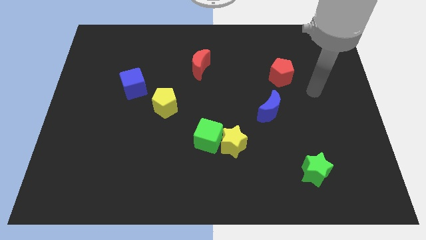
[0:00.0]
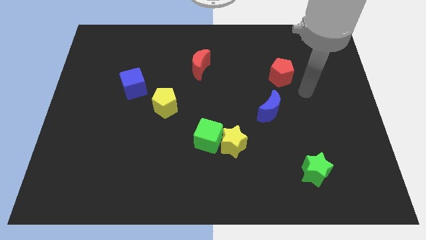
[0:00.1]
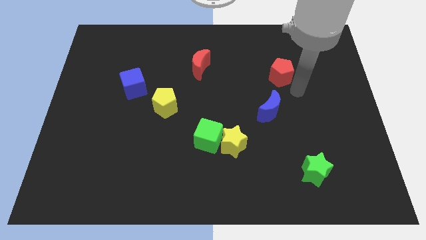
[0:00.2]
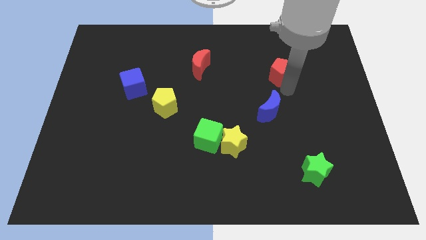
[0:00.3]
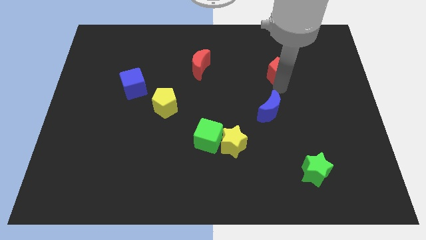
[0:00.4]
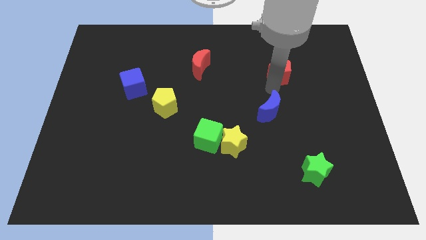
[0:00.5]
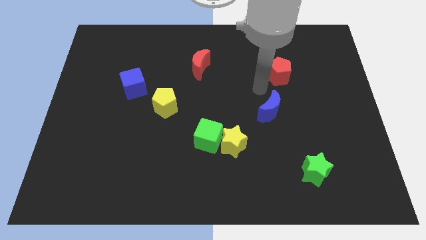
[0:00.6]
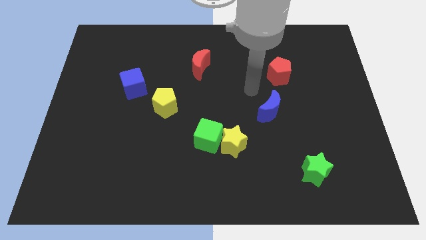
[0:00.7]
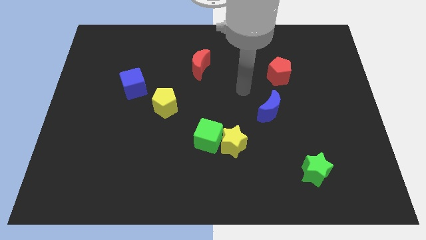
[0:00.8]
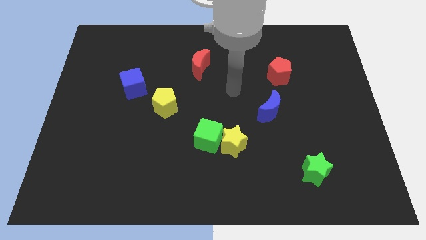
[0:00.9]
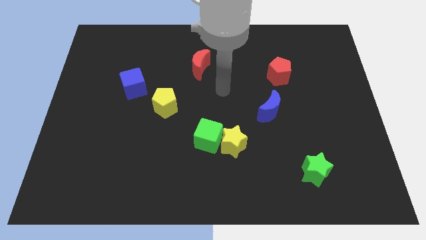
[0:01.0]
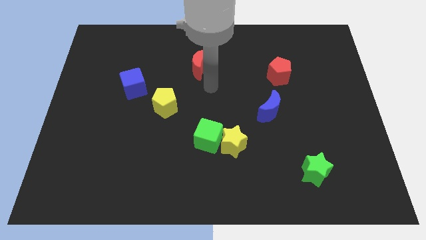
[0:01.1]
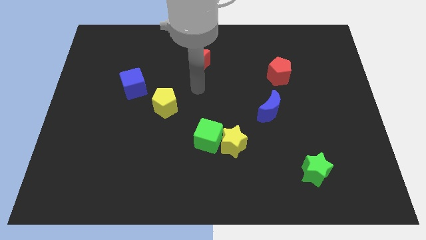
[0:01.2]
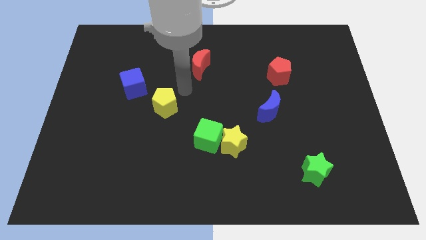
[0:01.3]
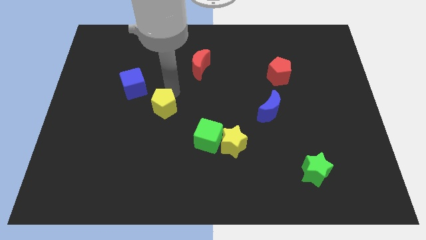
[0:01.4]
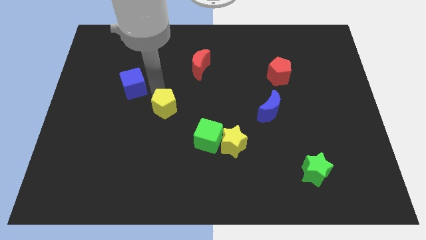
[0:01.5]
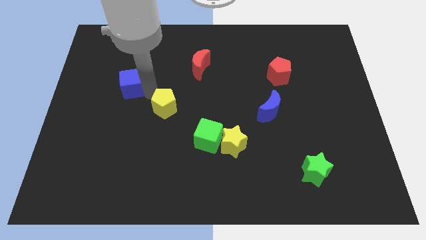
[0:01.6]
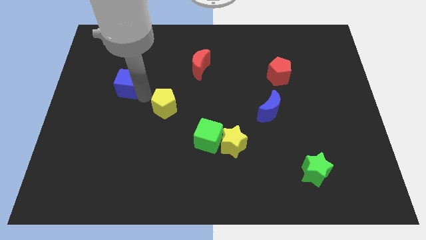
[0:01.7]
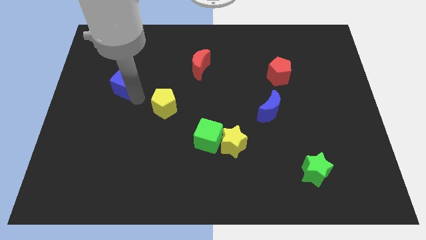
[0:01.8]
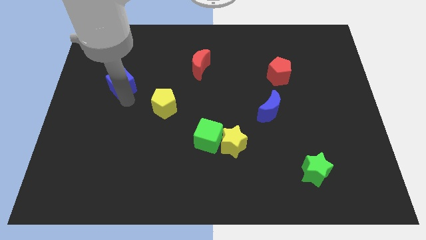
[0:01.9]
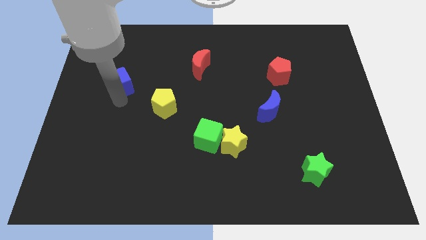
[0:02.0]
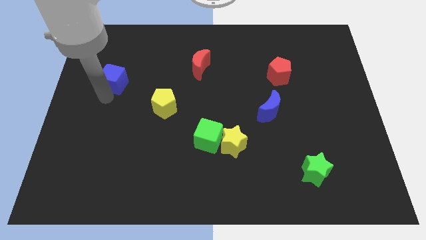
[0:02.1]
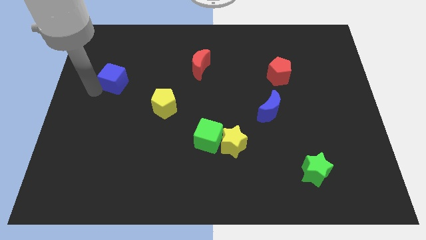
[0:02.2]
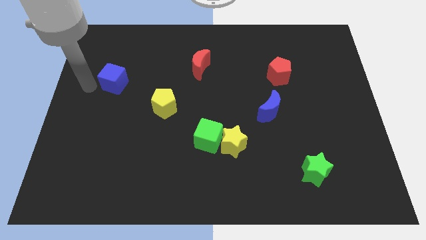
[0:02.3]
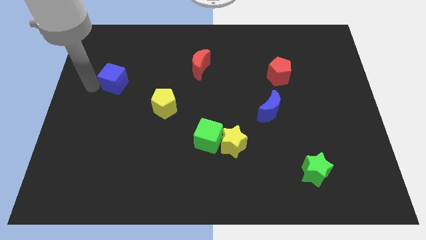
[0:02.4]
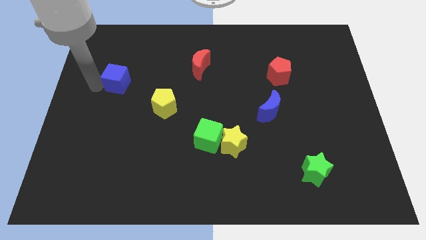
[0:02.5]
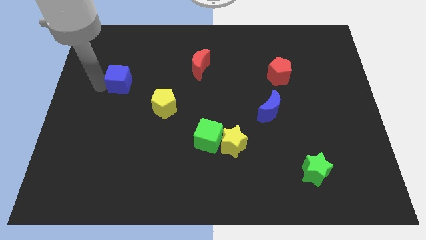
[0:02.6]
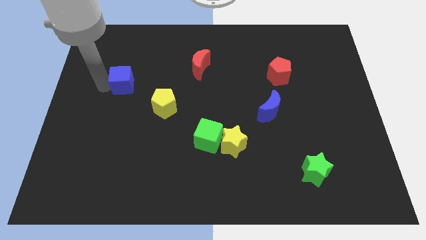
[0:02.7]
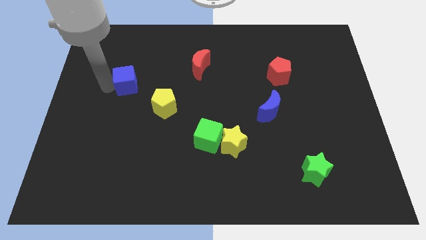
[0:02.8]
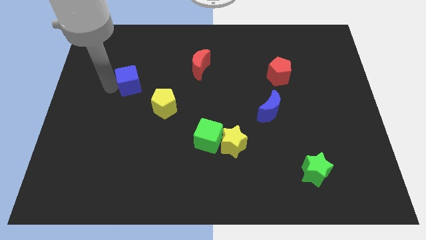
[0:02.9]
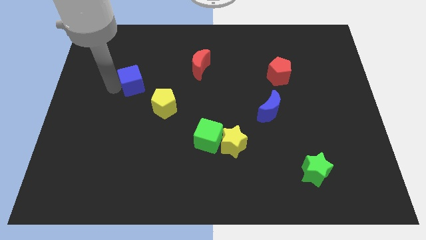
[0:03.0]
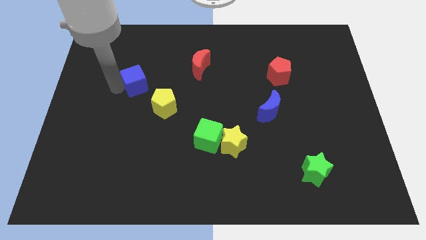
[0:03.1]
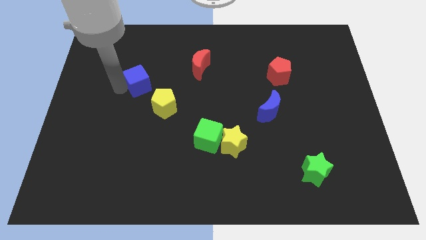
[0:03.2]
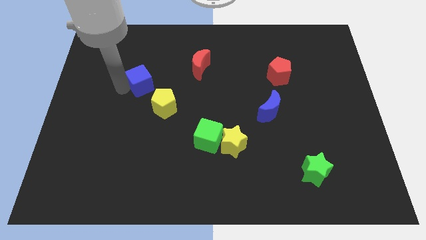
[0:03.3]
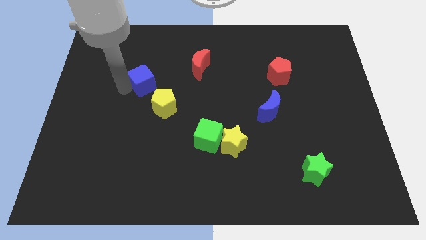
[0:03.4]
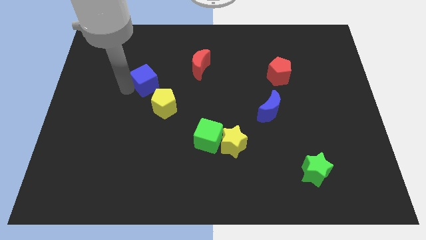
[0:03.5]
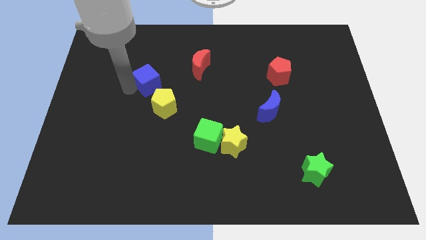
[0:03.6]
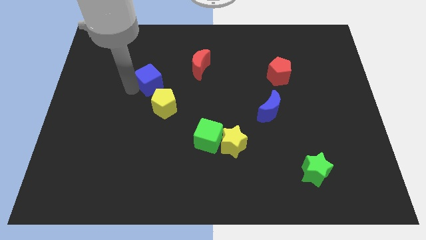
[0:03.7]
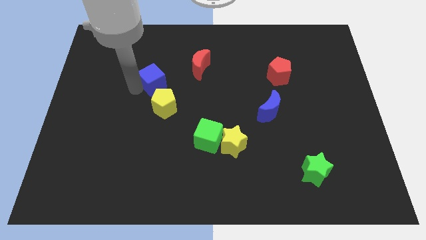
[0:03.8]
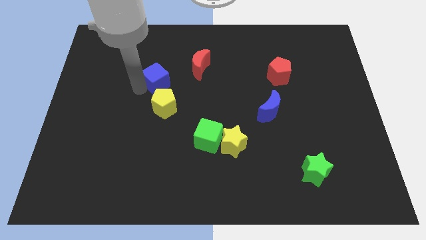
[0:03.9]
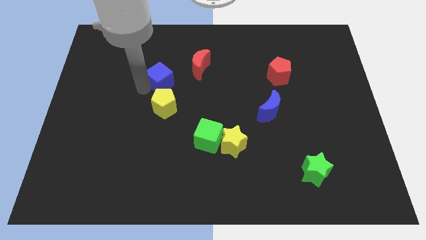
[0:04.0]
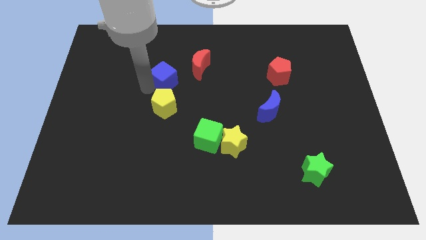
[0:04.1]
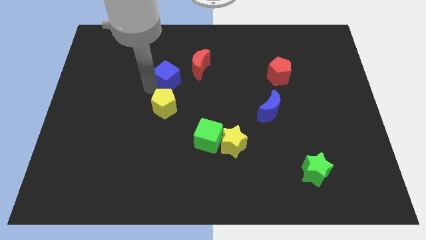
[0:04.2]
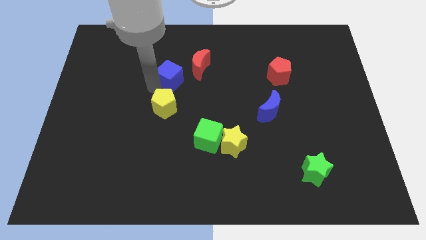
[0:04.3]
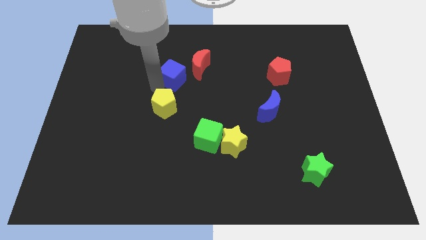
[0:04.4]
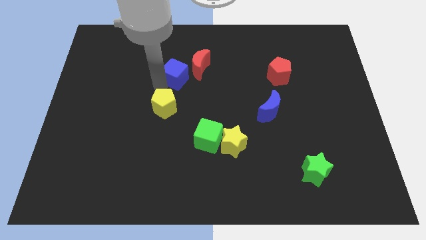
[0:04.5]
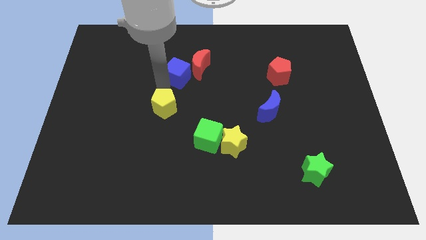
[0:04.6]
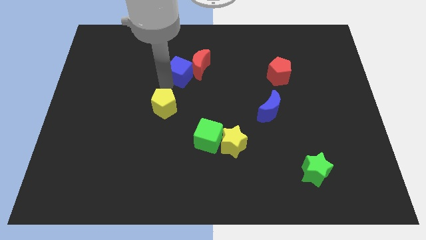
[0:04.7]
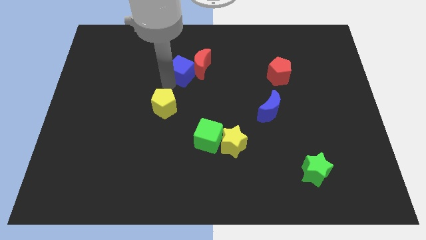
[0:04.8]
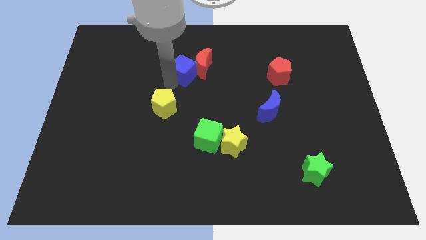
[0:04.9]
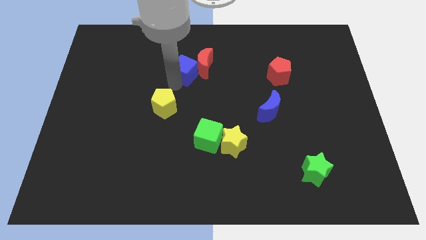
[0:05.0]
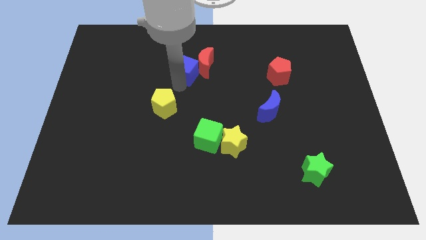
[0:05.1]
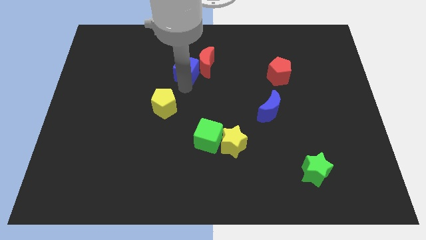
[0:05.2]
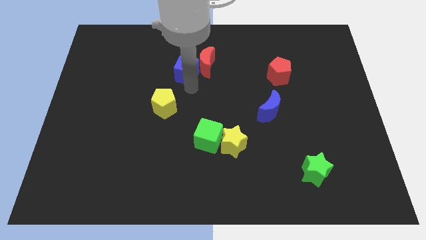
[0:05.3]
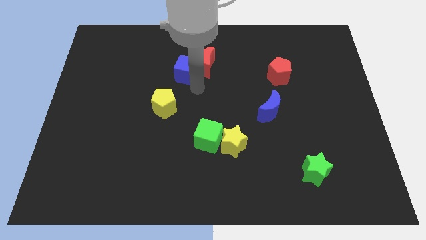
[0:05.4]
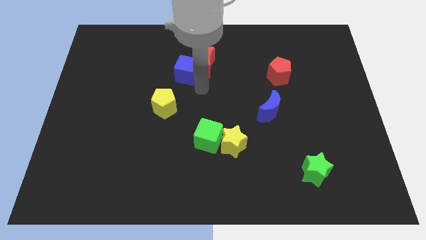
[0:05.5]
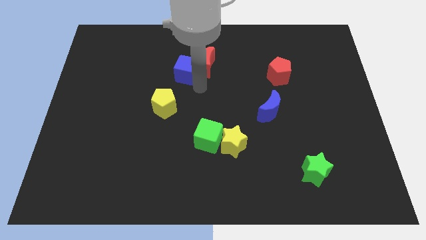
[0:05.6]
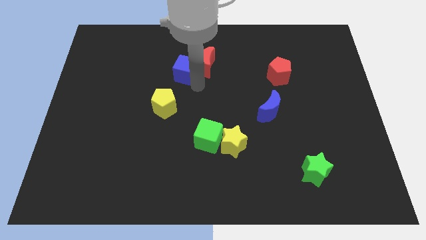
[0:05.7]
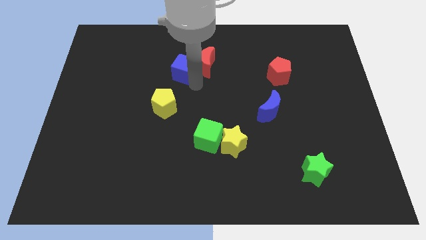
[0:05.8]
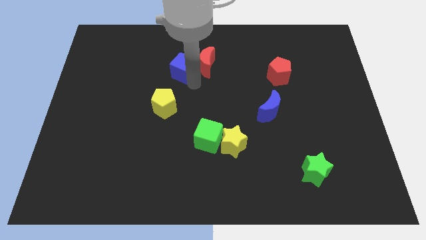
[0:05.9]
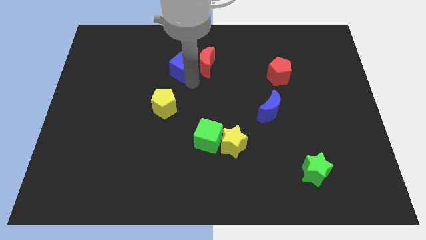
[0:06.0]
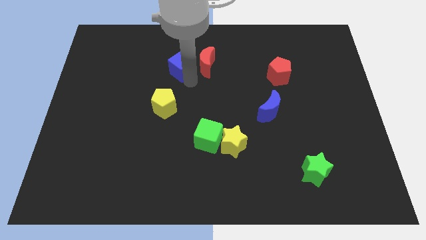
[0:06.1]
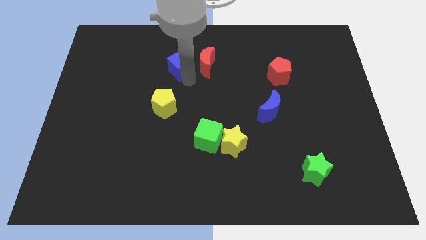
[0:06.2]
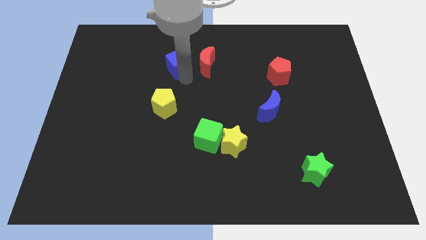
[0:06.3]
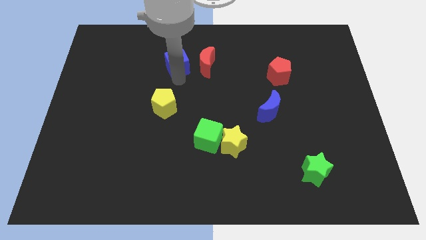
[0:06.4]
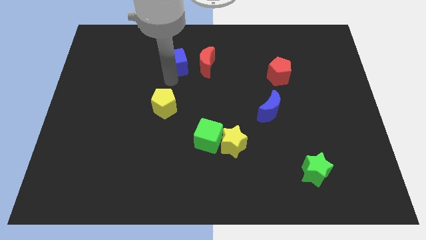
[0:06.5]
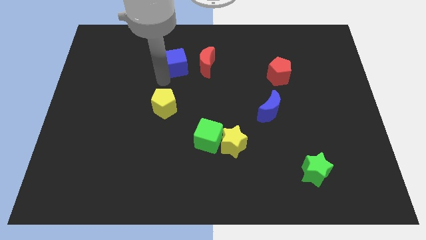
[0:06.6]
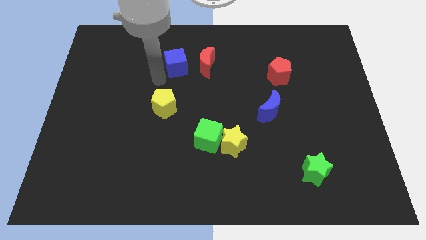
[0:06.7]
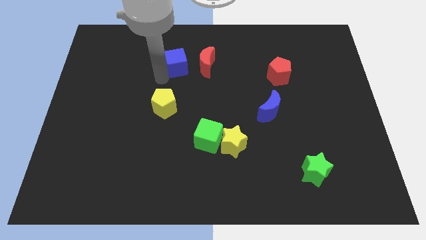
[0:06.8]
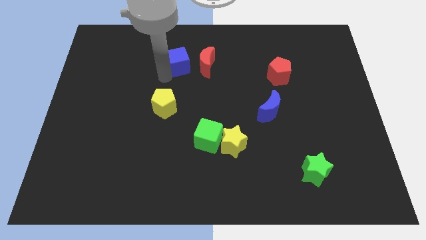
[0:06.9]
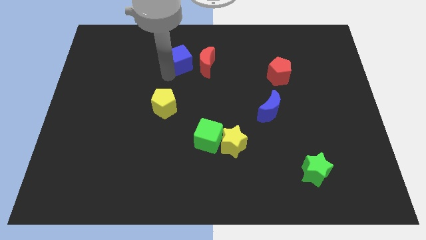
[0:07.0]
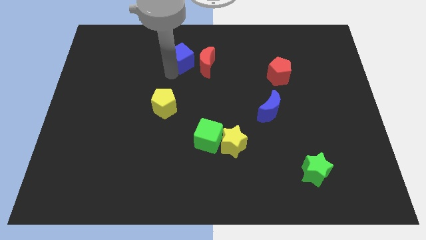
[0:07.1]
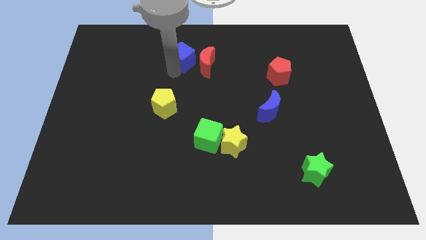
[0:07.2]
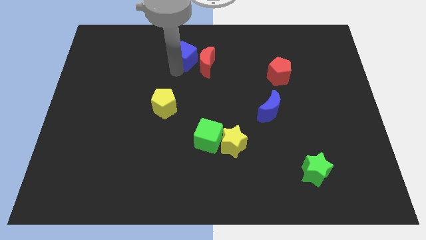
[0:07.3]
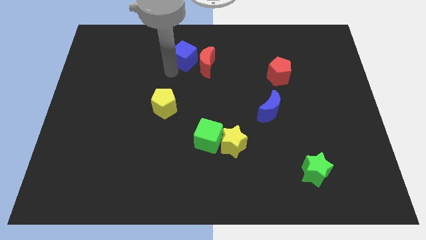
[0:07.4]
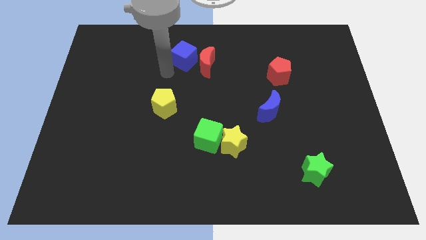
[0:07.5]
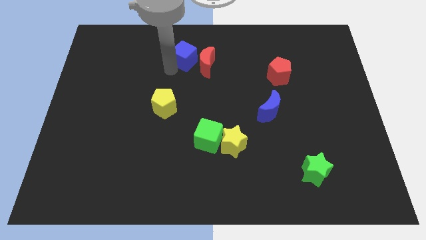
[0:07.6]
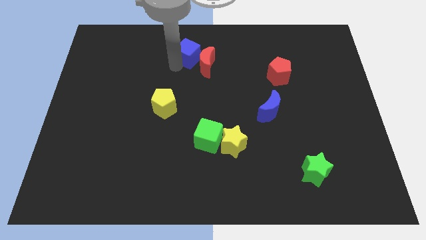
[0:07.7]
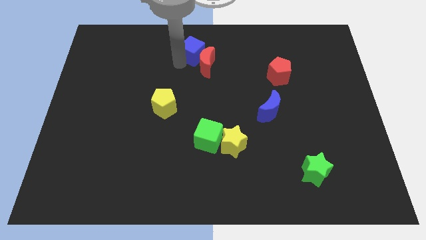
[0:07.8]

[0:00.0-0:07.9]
slide the blue cube to the towards your base
